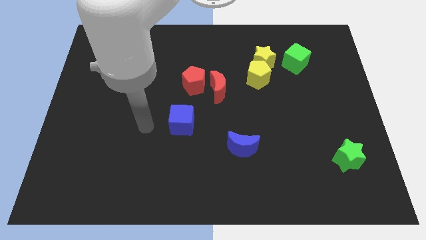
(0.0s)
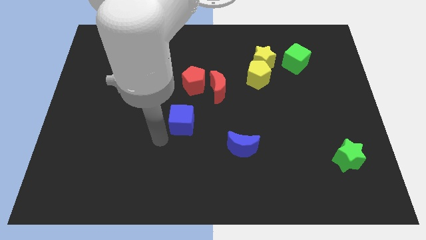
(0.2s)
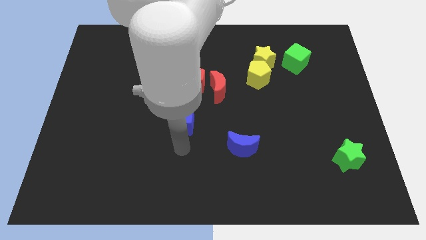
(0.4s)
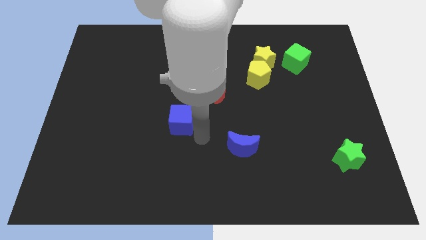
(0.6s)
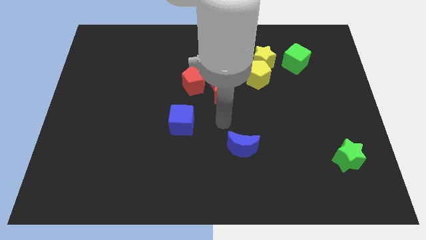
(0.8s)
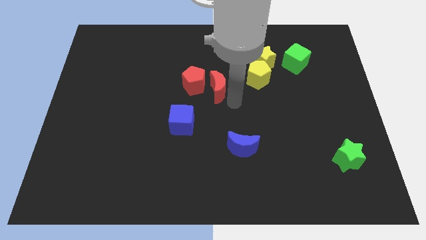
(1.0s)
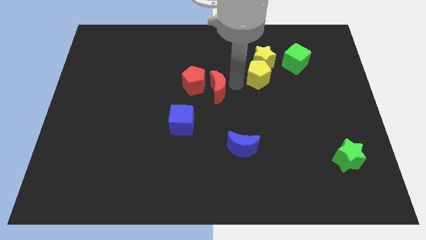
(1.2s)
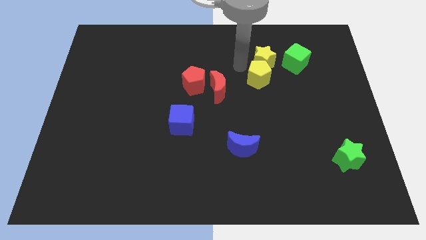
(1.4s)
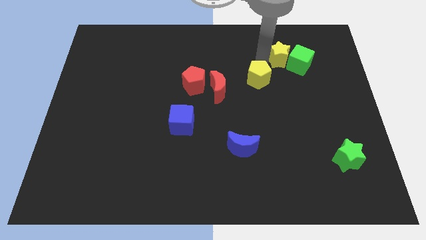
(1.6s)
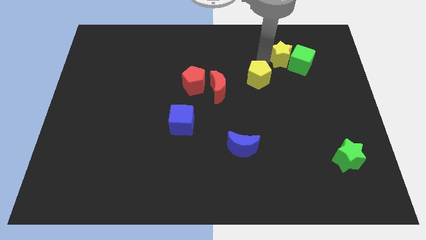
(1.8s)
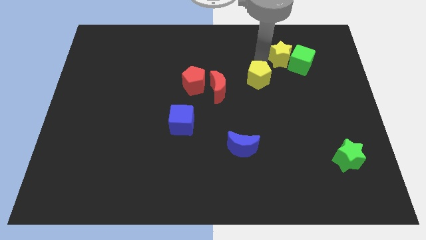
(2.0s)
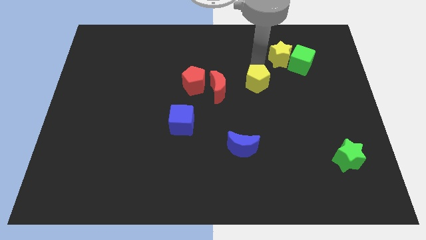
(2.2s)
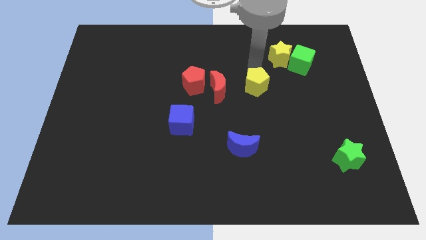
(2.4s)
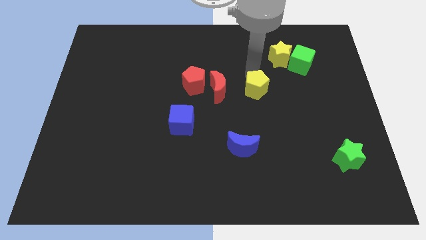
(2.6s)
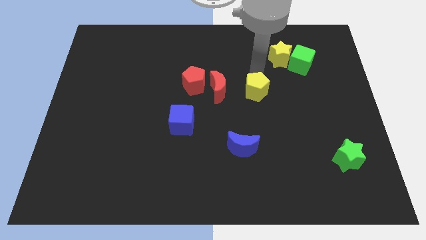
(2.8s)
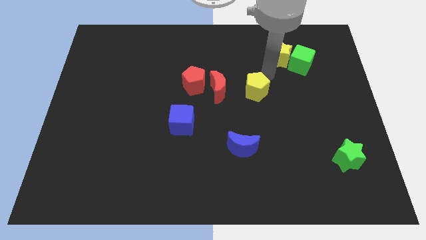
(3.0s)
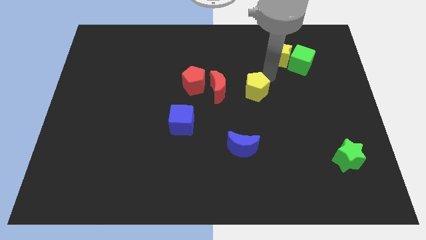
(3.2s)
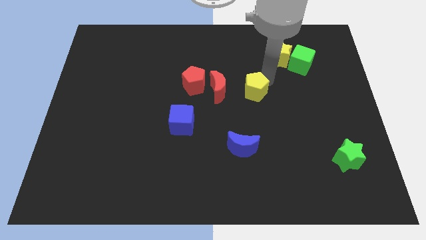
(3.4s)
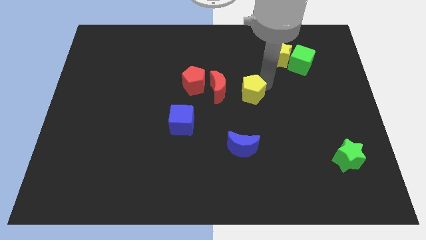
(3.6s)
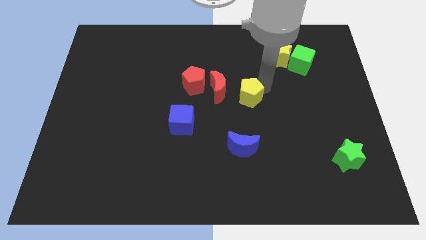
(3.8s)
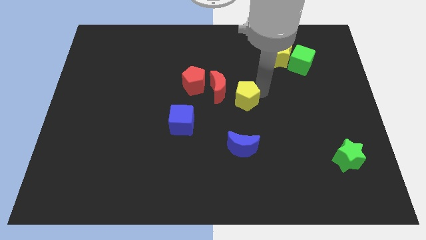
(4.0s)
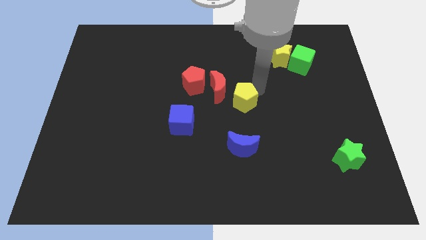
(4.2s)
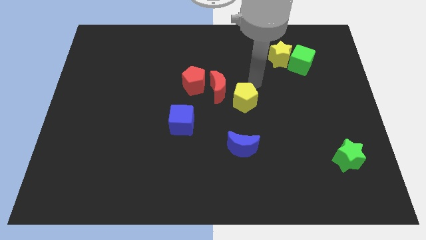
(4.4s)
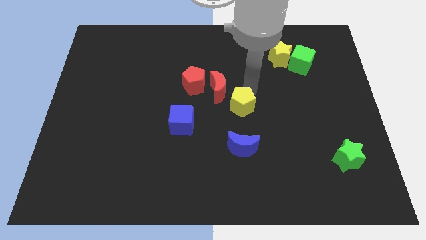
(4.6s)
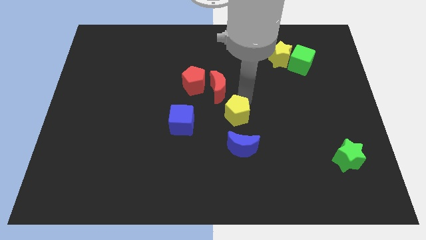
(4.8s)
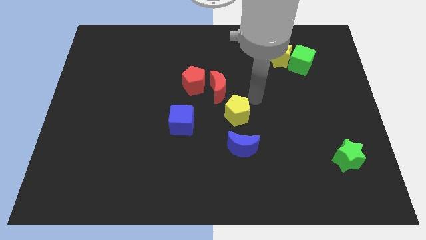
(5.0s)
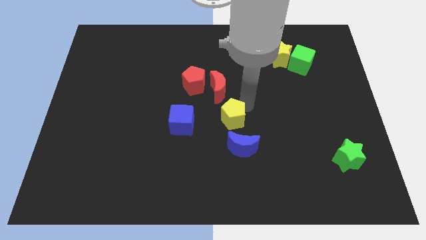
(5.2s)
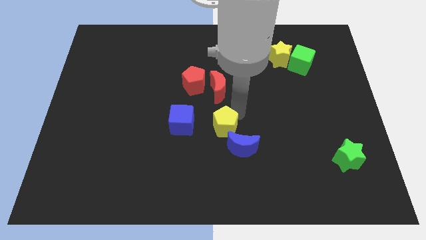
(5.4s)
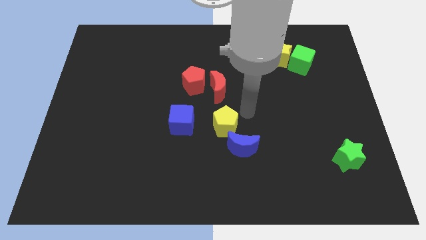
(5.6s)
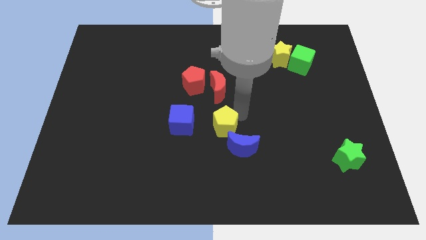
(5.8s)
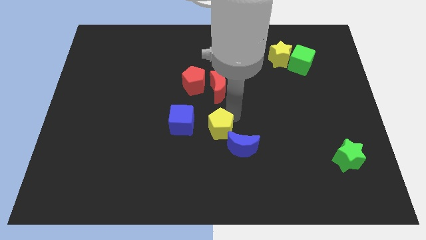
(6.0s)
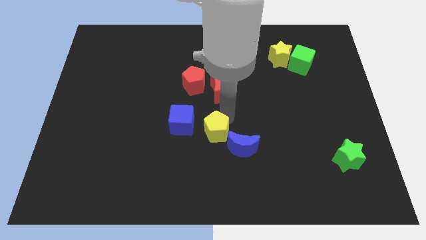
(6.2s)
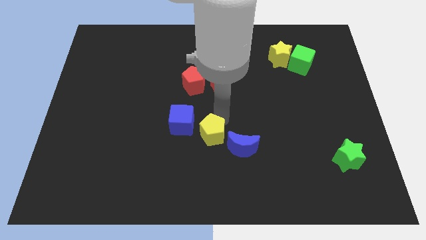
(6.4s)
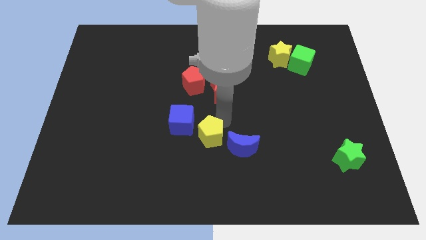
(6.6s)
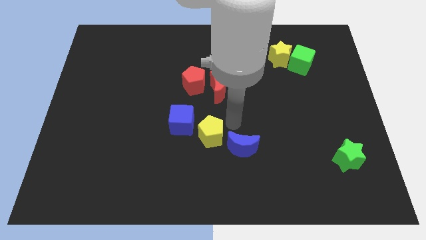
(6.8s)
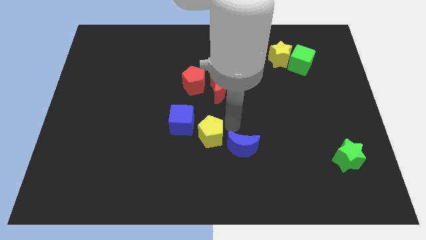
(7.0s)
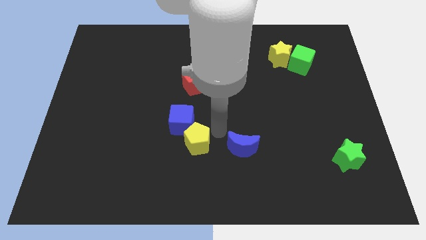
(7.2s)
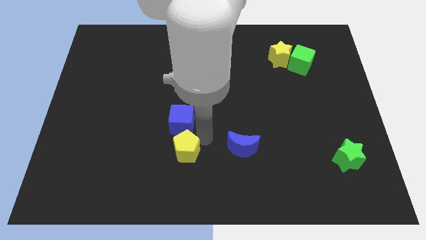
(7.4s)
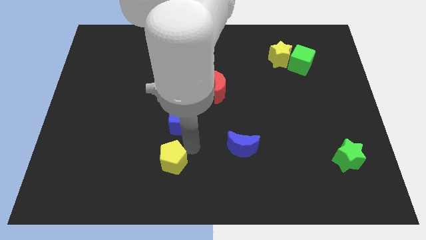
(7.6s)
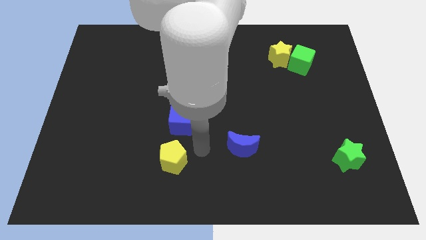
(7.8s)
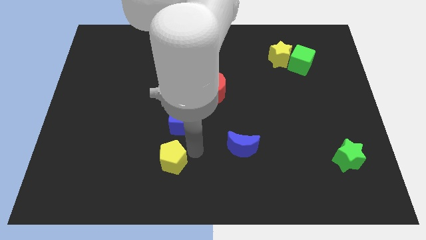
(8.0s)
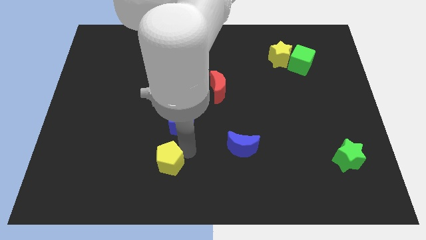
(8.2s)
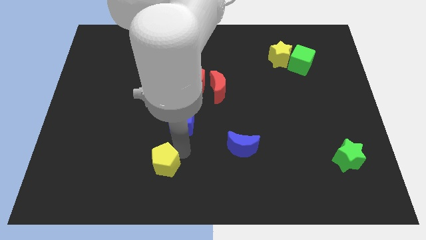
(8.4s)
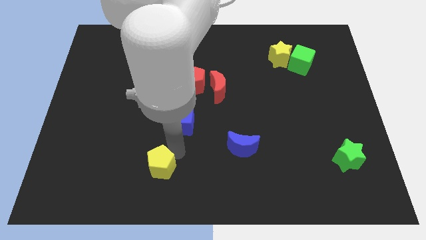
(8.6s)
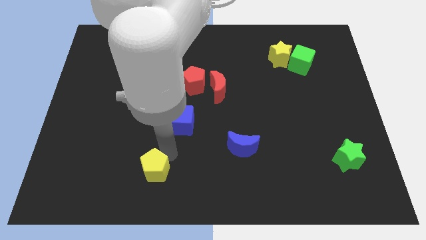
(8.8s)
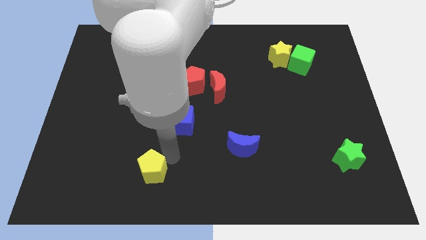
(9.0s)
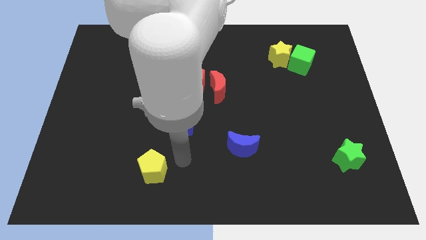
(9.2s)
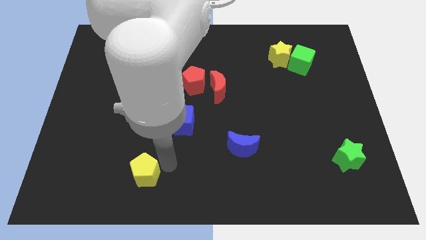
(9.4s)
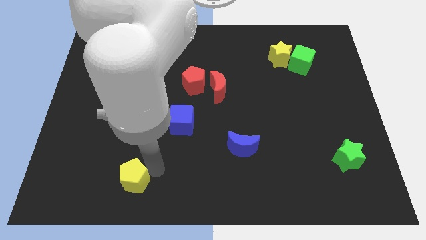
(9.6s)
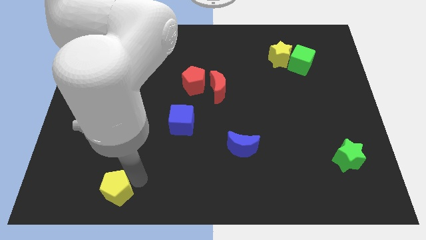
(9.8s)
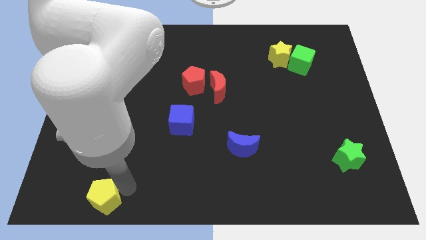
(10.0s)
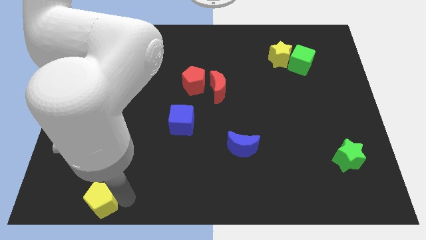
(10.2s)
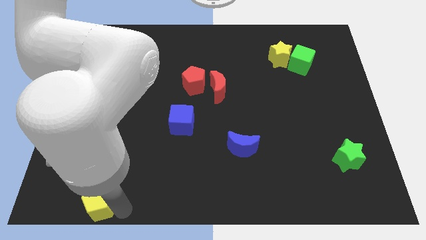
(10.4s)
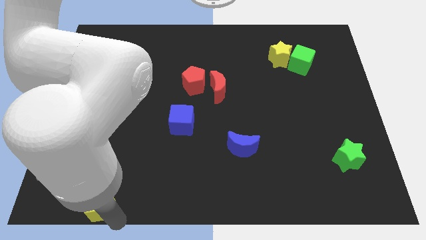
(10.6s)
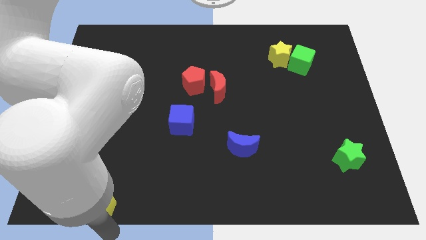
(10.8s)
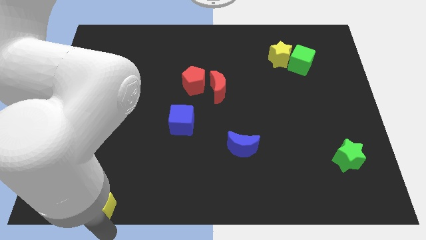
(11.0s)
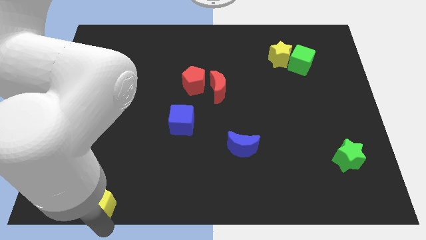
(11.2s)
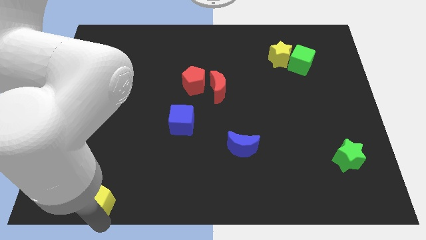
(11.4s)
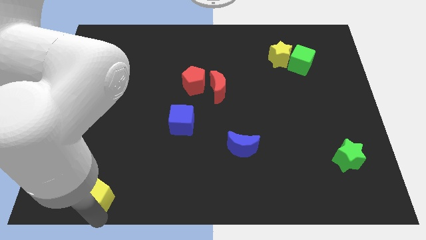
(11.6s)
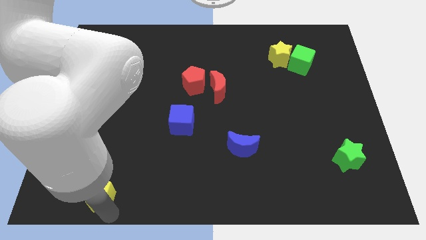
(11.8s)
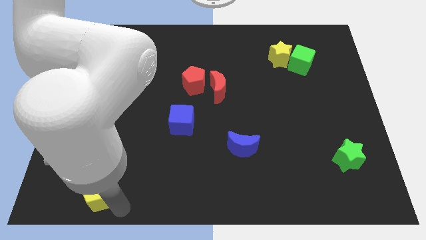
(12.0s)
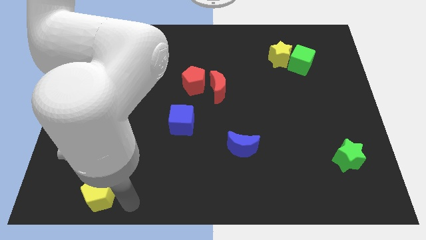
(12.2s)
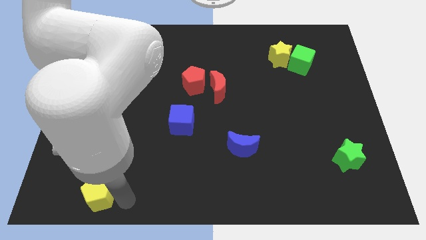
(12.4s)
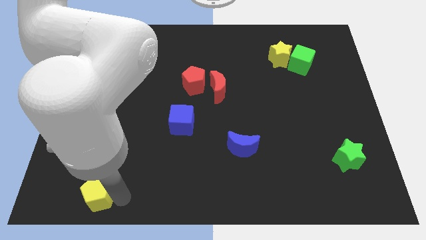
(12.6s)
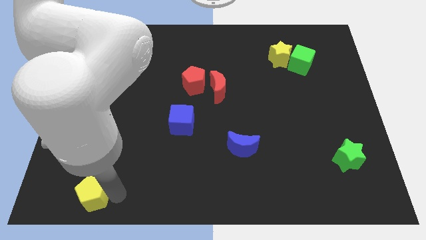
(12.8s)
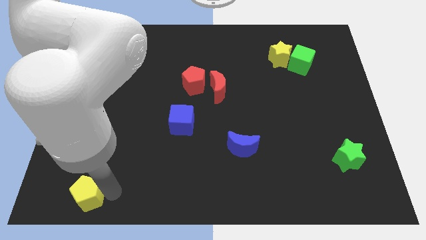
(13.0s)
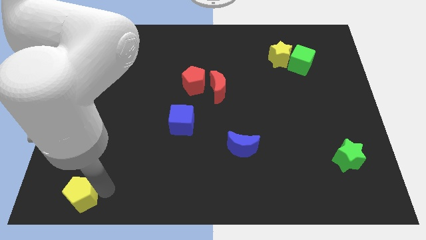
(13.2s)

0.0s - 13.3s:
put the yellow pentagon to the bottom left of the board
